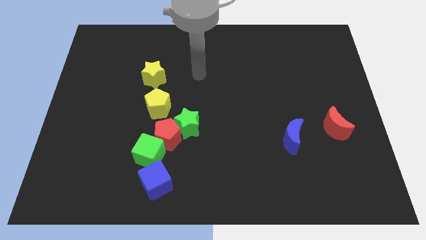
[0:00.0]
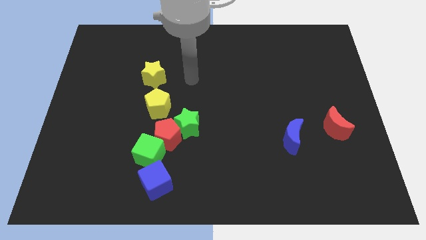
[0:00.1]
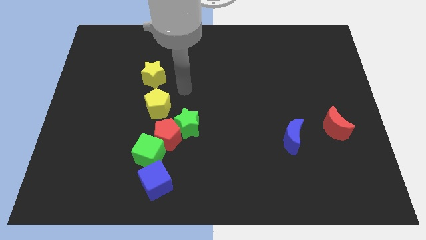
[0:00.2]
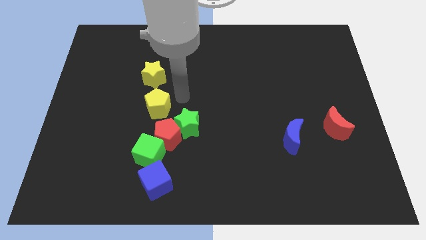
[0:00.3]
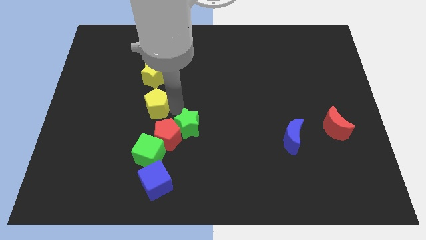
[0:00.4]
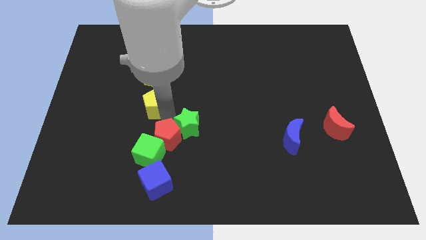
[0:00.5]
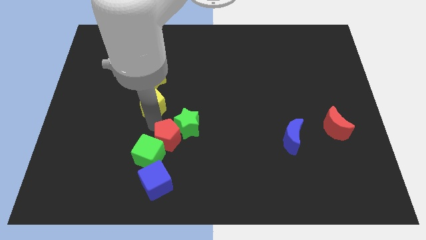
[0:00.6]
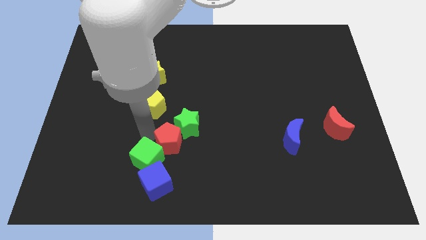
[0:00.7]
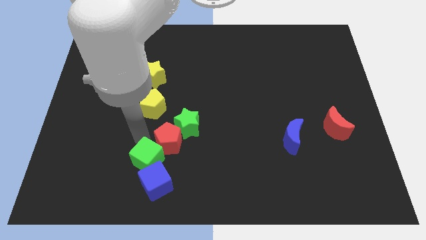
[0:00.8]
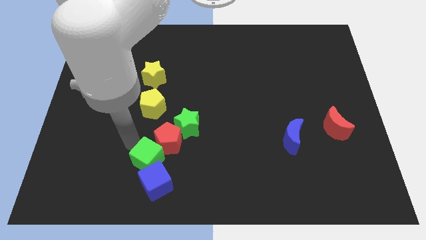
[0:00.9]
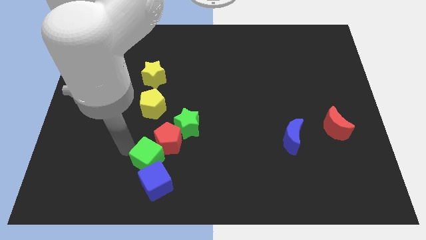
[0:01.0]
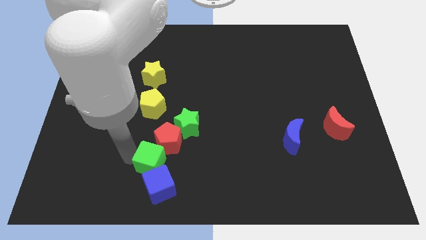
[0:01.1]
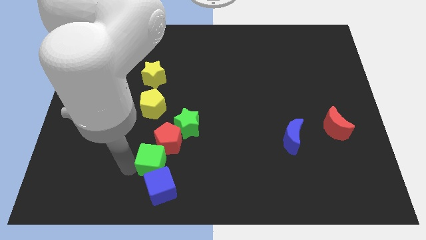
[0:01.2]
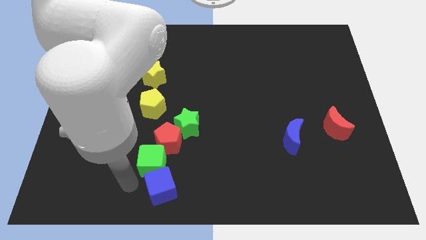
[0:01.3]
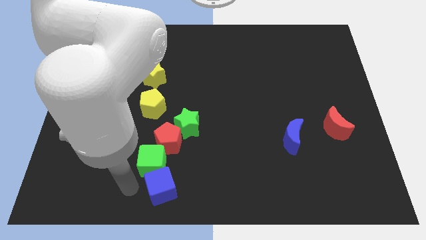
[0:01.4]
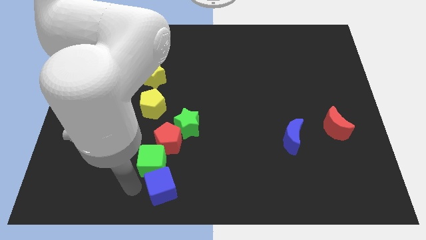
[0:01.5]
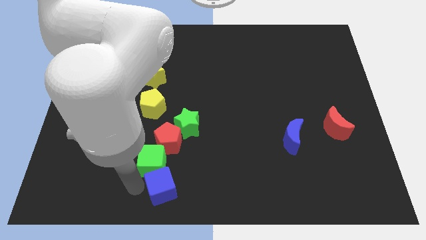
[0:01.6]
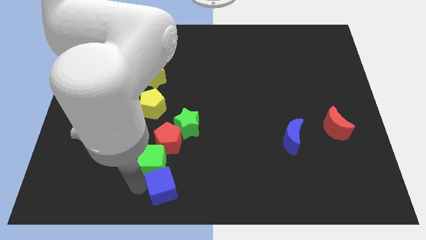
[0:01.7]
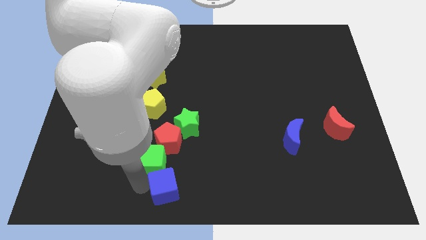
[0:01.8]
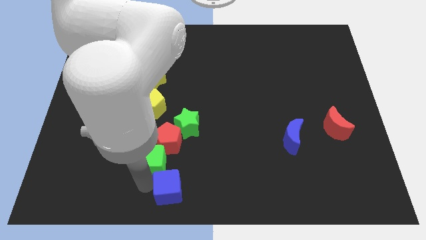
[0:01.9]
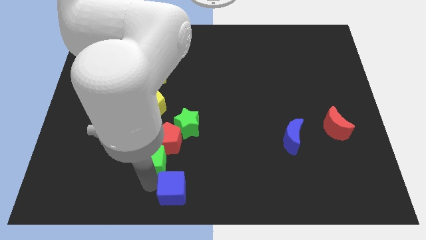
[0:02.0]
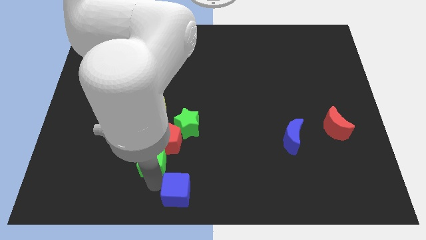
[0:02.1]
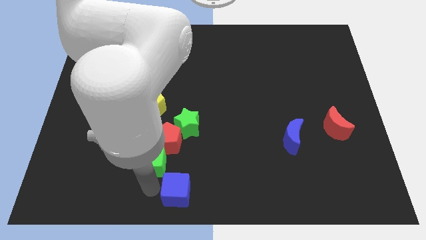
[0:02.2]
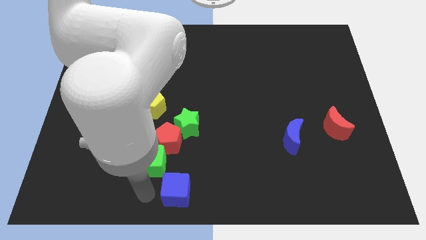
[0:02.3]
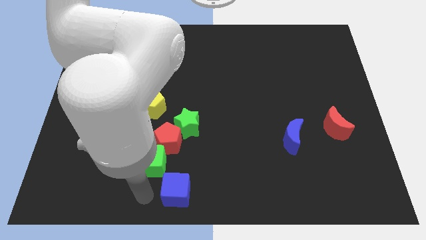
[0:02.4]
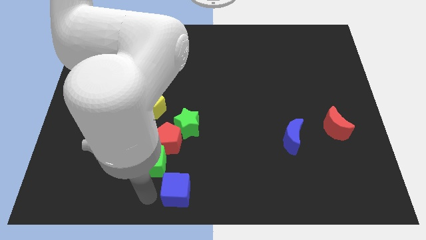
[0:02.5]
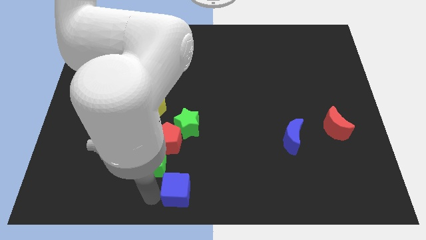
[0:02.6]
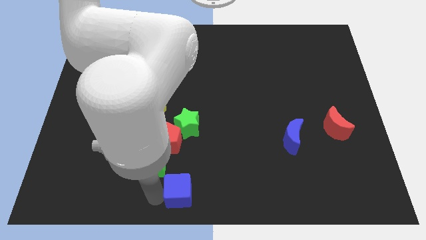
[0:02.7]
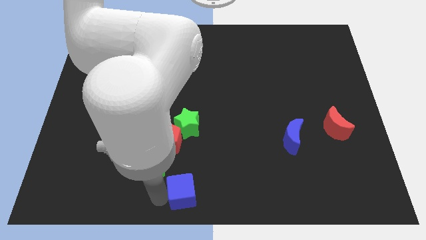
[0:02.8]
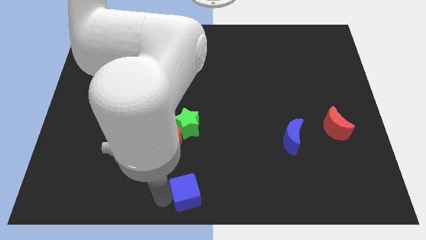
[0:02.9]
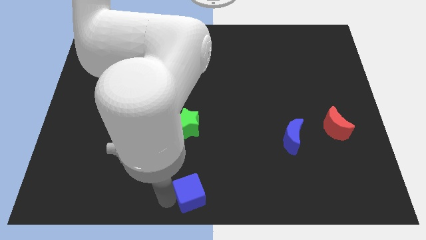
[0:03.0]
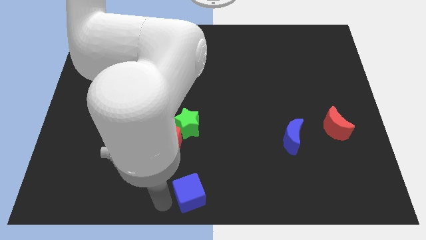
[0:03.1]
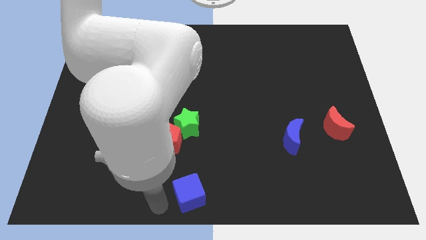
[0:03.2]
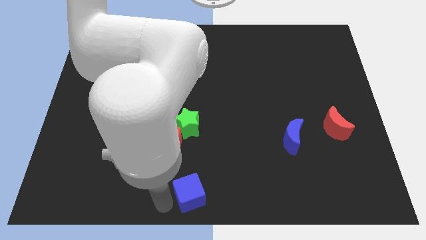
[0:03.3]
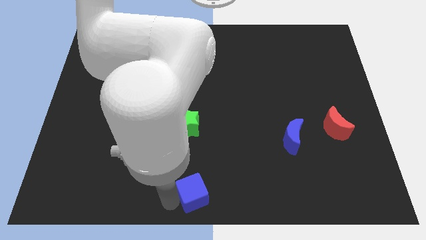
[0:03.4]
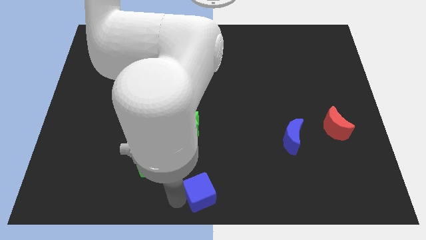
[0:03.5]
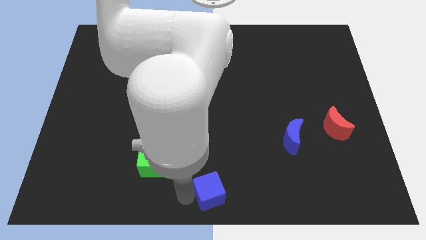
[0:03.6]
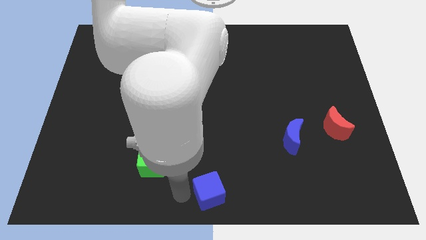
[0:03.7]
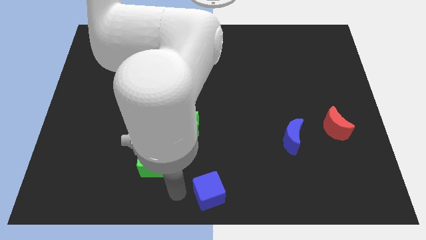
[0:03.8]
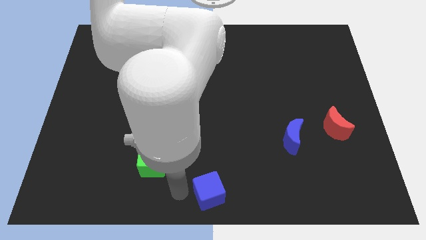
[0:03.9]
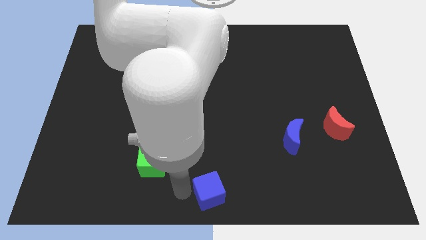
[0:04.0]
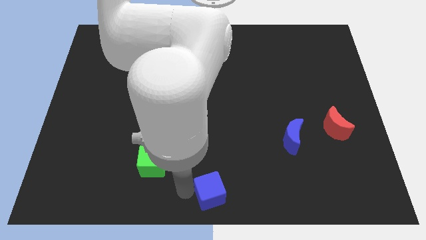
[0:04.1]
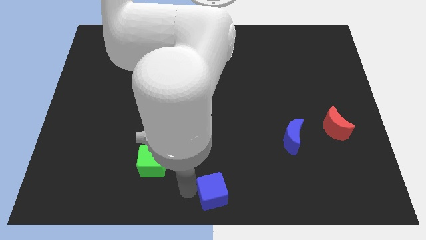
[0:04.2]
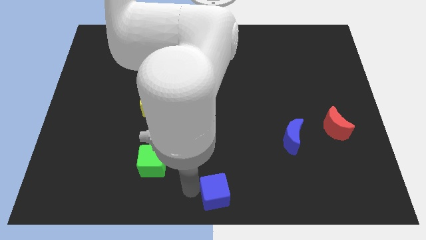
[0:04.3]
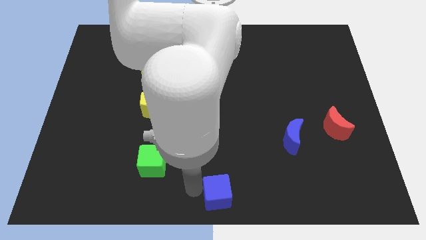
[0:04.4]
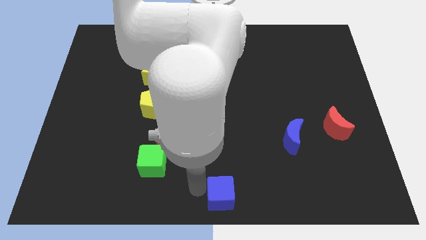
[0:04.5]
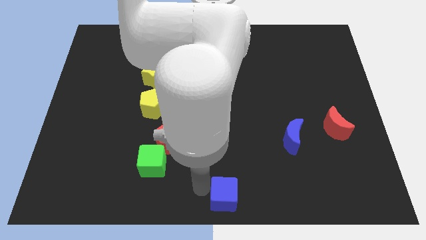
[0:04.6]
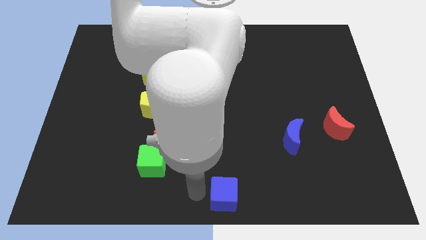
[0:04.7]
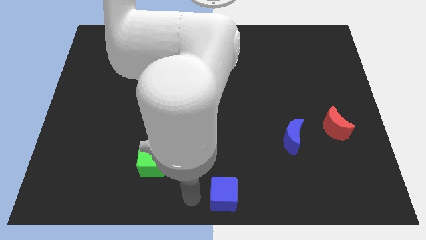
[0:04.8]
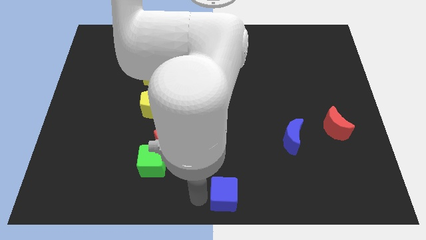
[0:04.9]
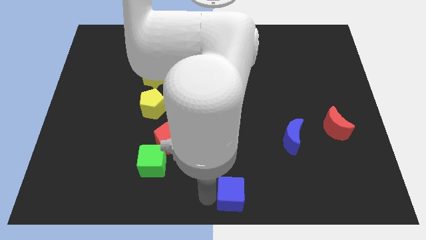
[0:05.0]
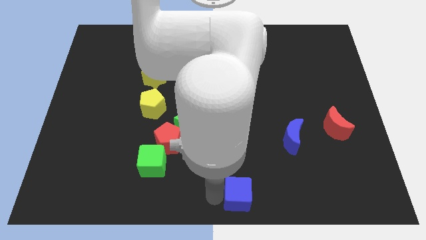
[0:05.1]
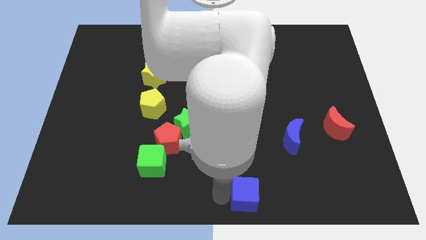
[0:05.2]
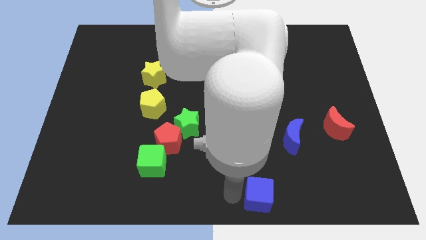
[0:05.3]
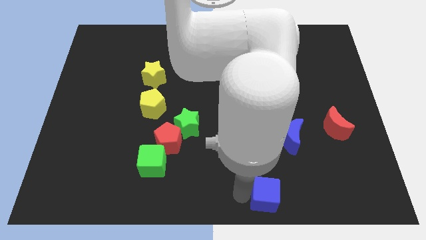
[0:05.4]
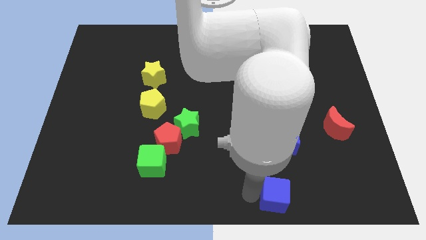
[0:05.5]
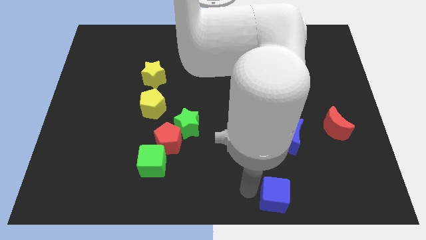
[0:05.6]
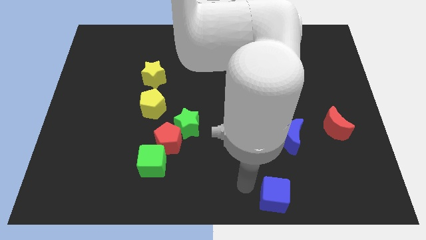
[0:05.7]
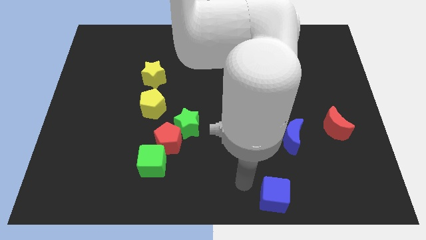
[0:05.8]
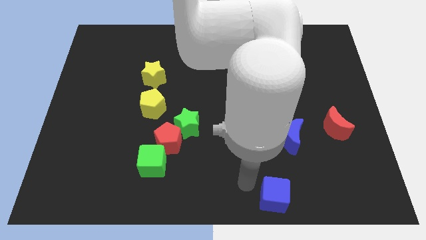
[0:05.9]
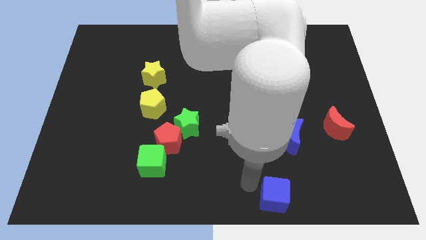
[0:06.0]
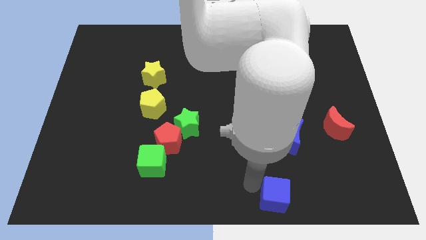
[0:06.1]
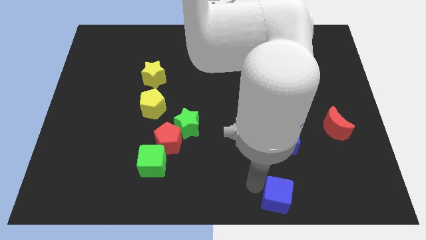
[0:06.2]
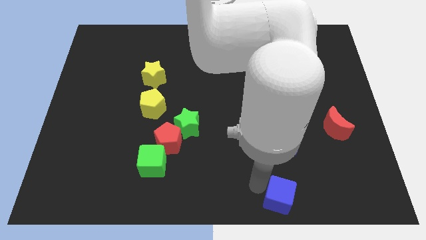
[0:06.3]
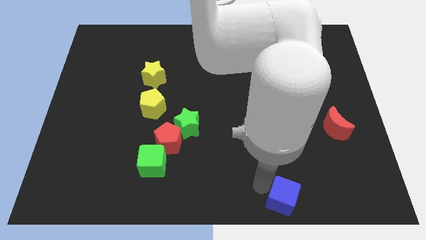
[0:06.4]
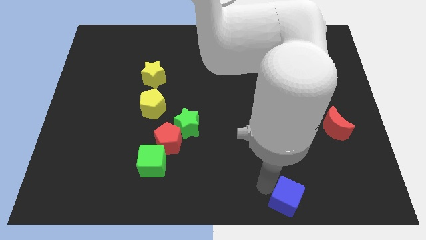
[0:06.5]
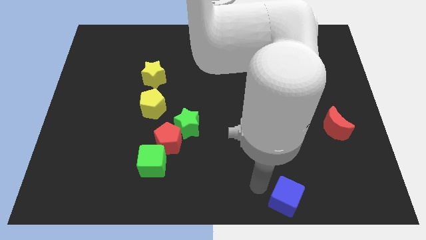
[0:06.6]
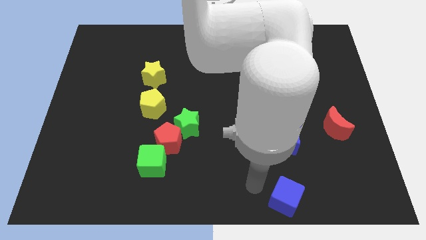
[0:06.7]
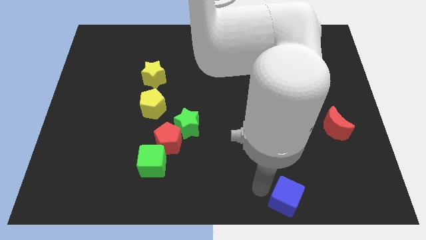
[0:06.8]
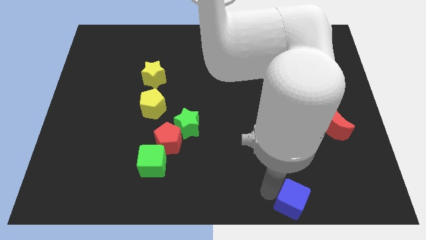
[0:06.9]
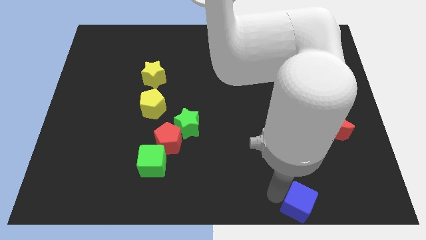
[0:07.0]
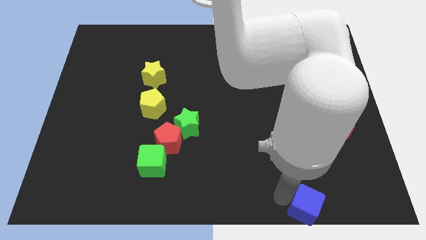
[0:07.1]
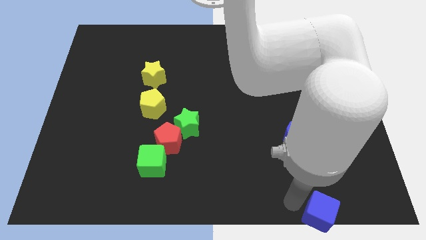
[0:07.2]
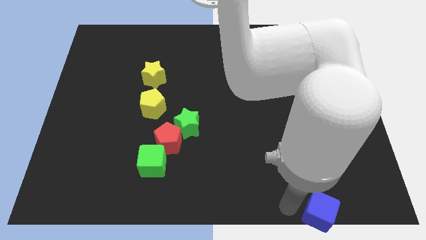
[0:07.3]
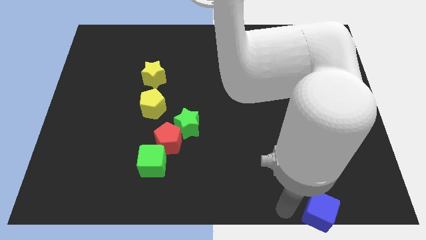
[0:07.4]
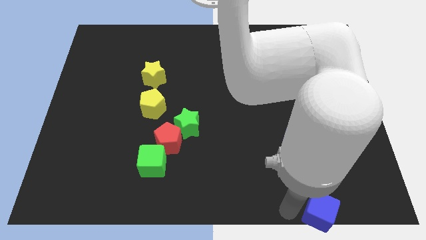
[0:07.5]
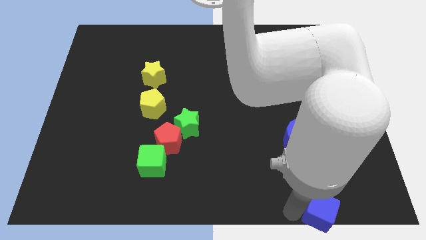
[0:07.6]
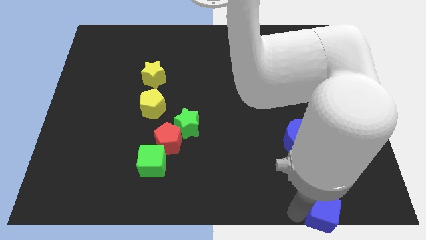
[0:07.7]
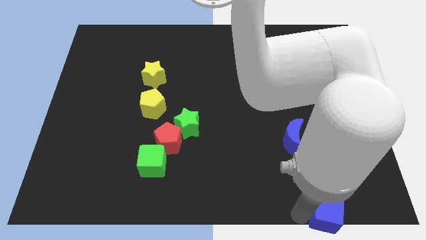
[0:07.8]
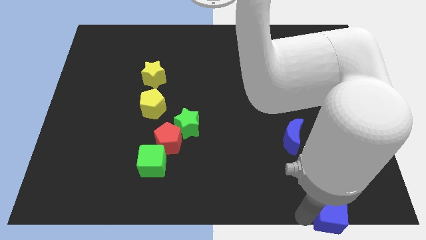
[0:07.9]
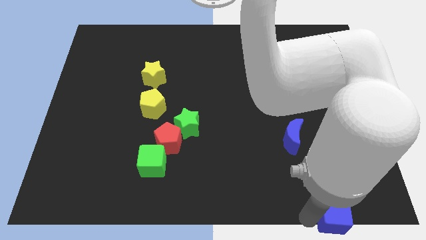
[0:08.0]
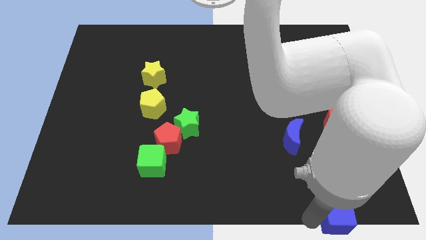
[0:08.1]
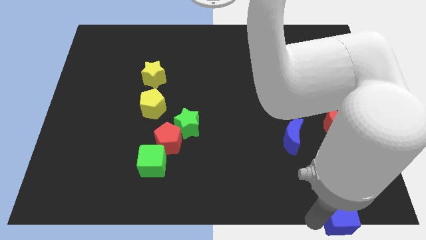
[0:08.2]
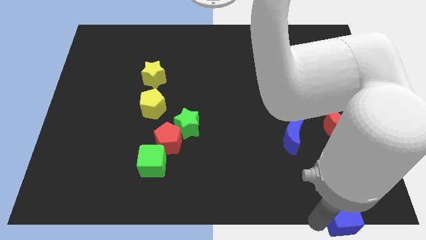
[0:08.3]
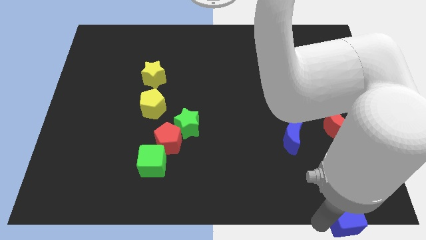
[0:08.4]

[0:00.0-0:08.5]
move the blue cube to the lower right corner

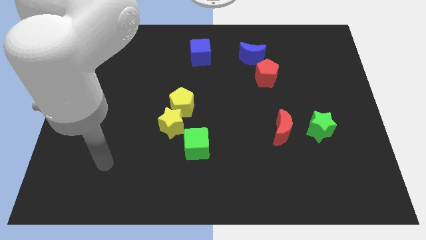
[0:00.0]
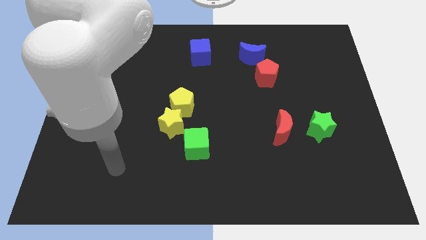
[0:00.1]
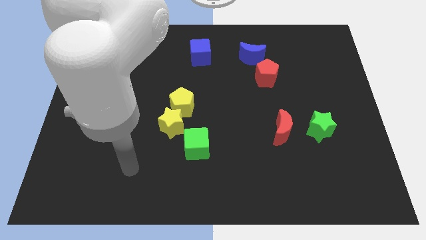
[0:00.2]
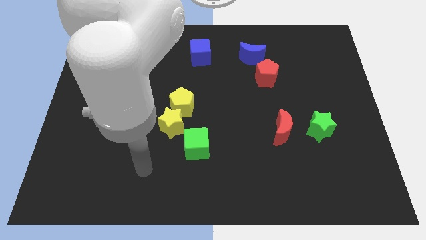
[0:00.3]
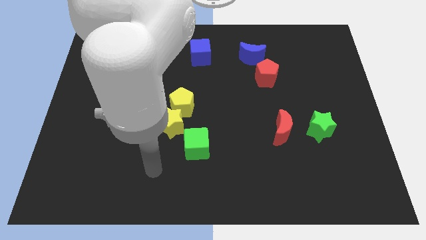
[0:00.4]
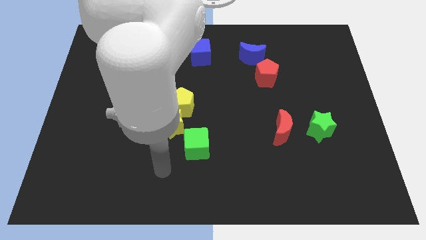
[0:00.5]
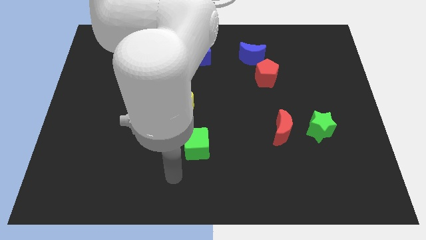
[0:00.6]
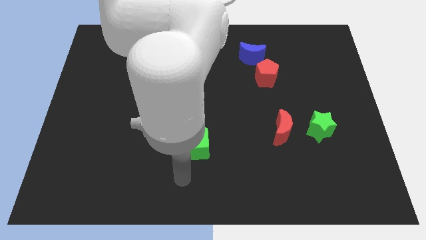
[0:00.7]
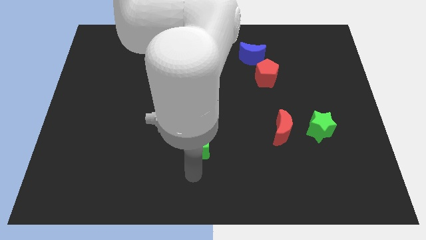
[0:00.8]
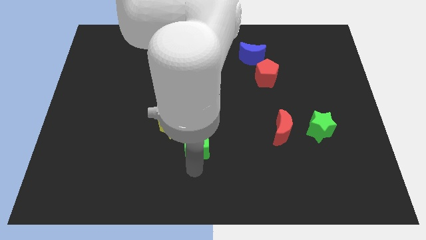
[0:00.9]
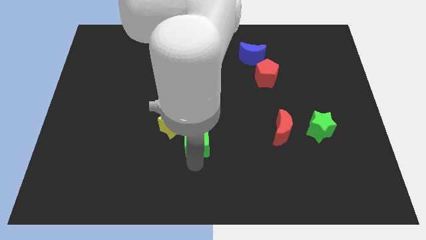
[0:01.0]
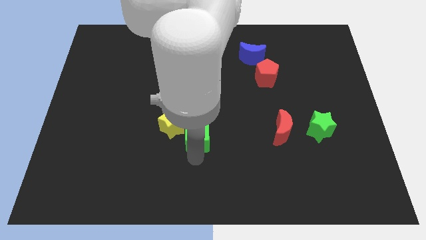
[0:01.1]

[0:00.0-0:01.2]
move the green cube to the center of the board
